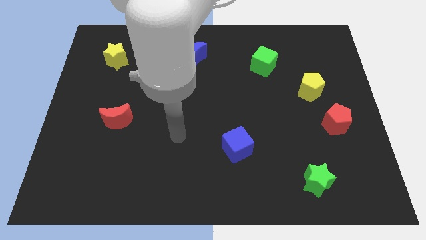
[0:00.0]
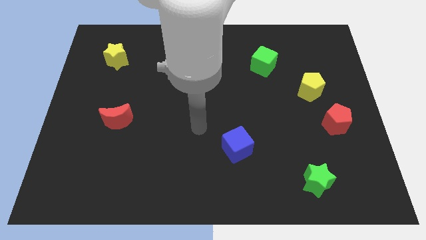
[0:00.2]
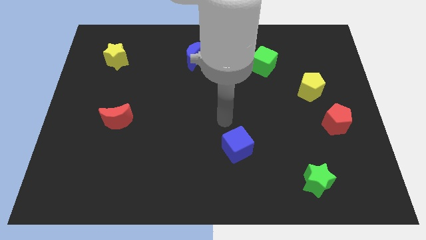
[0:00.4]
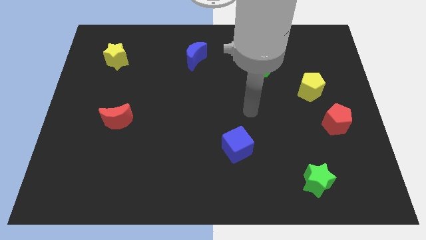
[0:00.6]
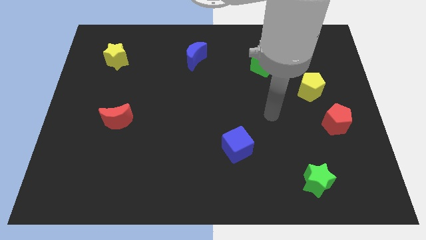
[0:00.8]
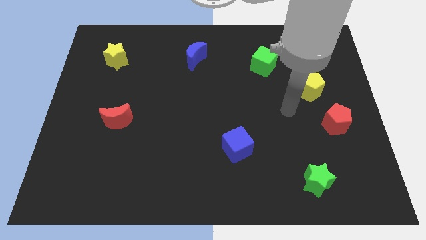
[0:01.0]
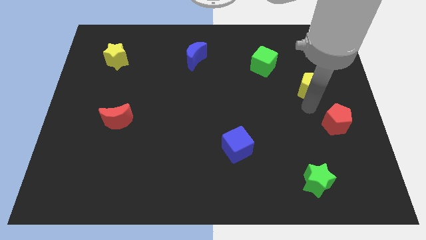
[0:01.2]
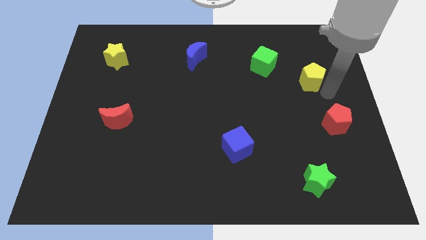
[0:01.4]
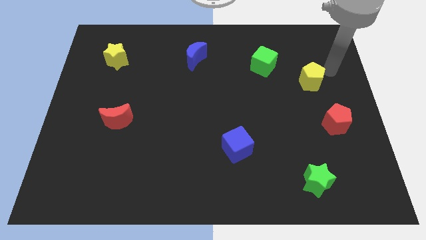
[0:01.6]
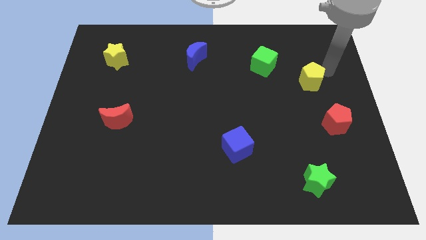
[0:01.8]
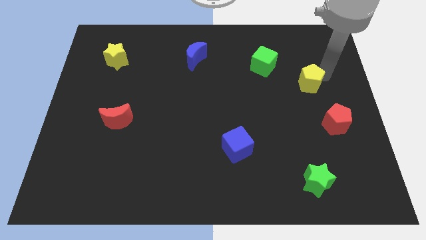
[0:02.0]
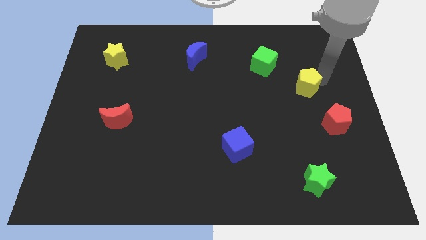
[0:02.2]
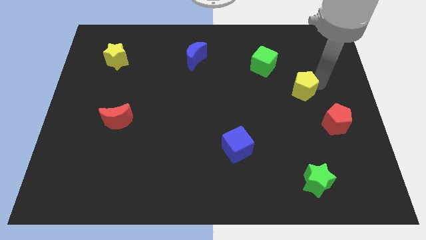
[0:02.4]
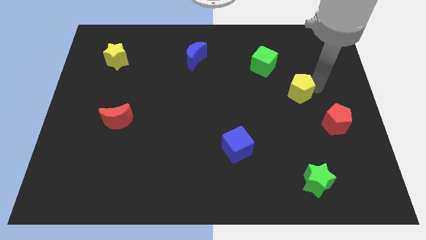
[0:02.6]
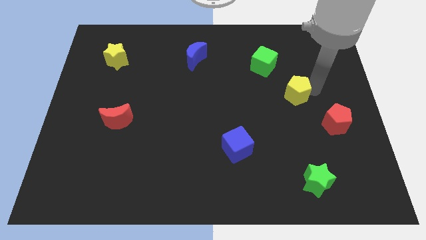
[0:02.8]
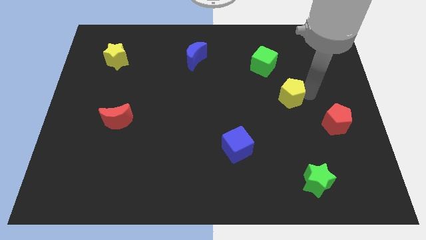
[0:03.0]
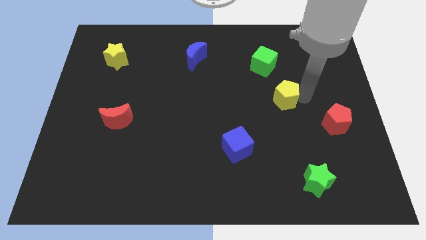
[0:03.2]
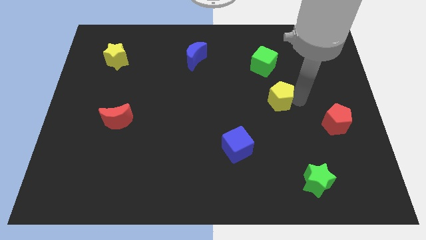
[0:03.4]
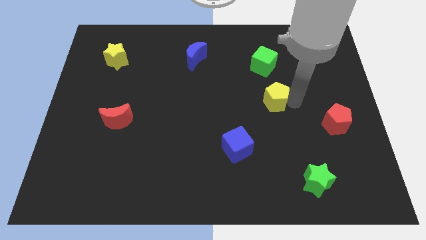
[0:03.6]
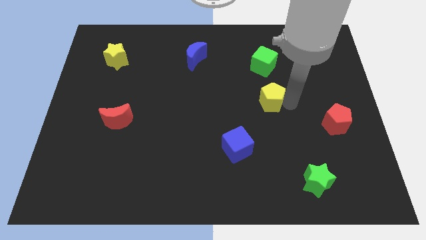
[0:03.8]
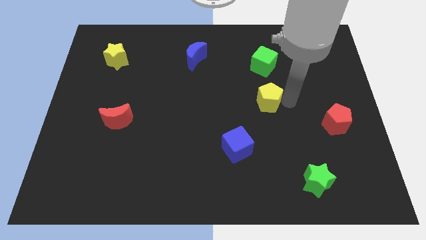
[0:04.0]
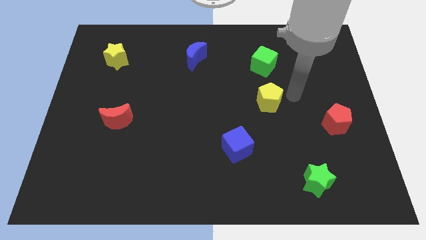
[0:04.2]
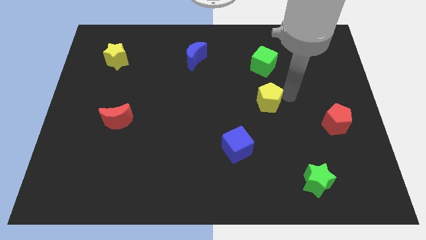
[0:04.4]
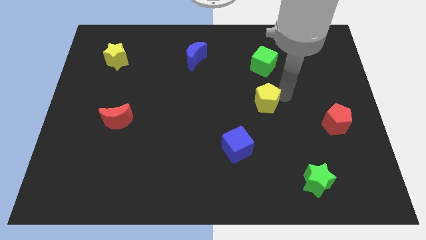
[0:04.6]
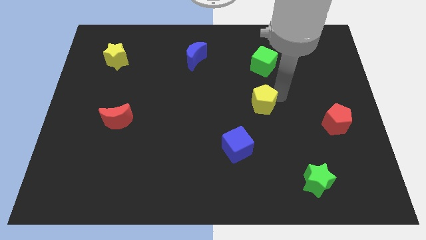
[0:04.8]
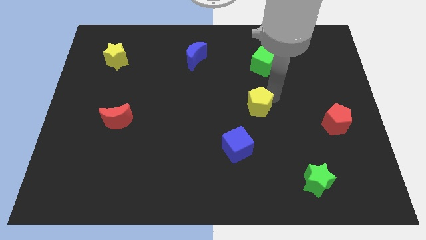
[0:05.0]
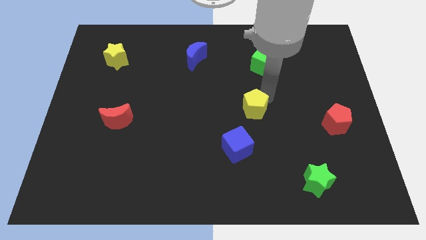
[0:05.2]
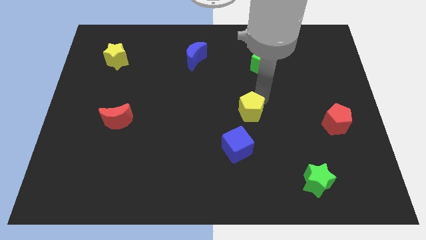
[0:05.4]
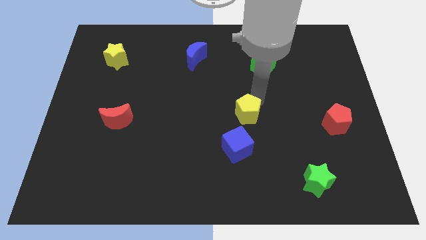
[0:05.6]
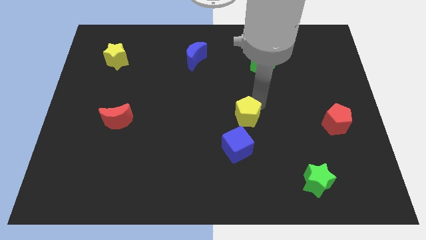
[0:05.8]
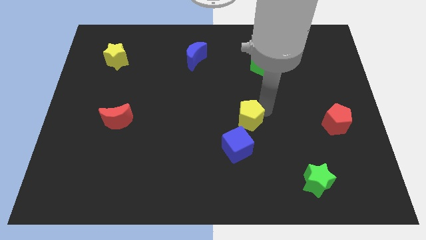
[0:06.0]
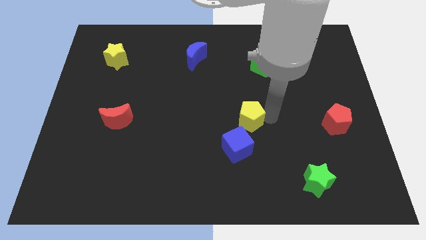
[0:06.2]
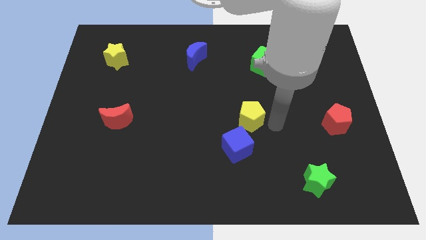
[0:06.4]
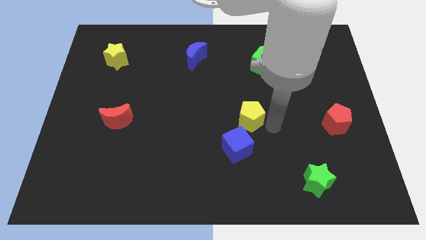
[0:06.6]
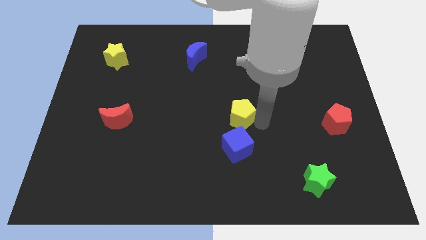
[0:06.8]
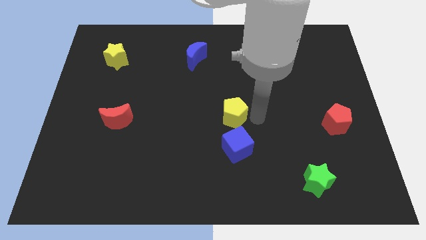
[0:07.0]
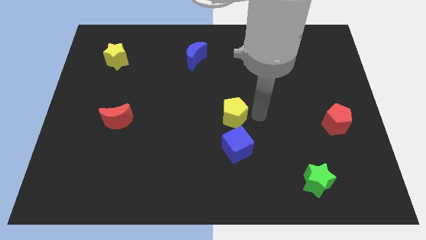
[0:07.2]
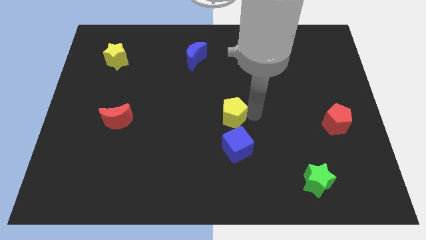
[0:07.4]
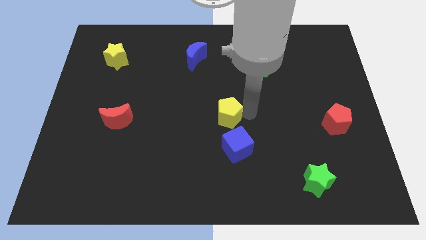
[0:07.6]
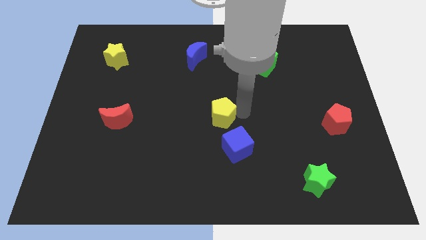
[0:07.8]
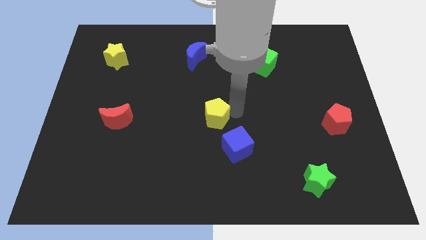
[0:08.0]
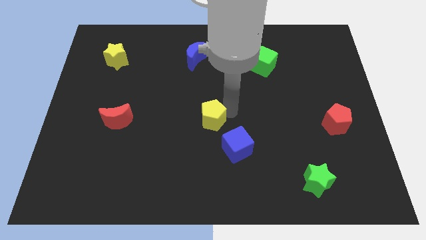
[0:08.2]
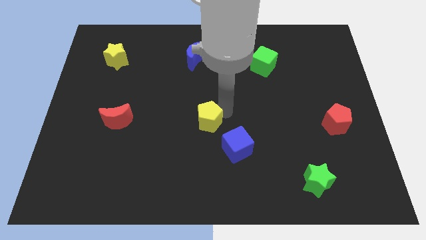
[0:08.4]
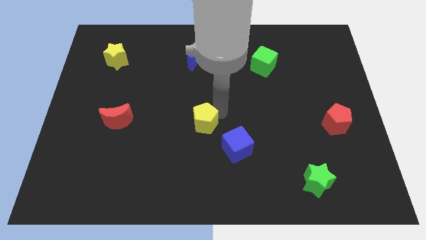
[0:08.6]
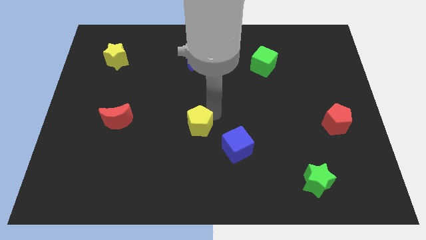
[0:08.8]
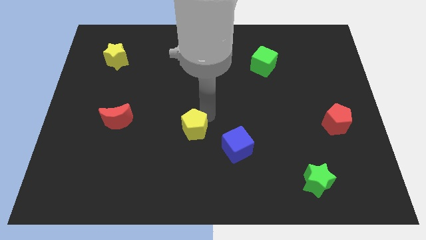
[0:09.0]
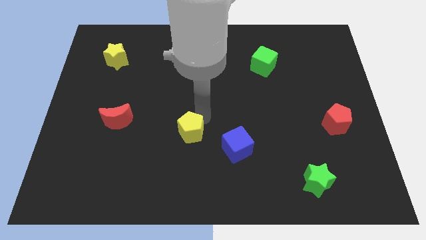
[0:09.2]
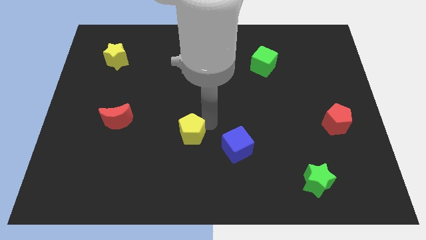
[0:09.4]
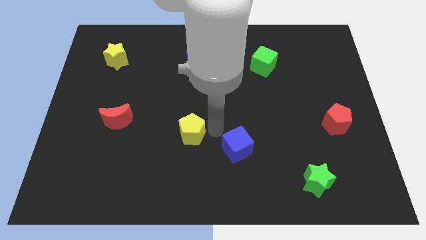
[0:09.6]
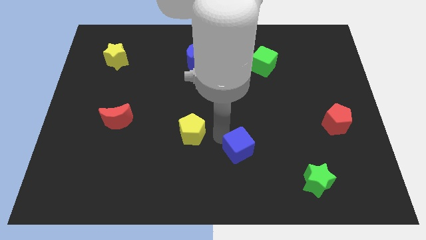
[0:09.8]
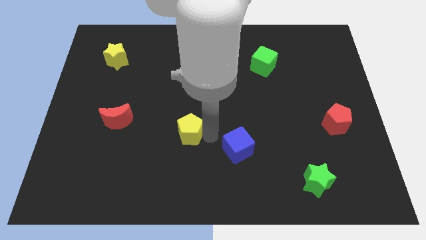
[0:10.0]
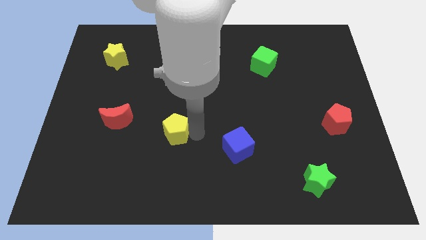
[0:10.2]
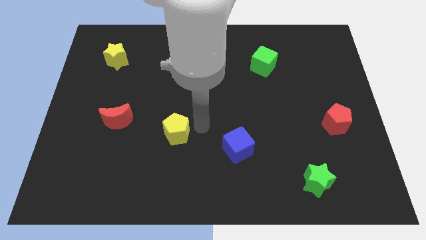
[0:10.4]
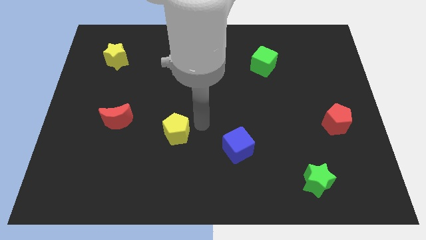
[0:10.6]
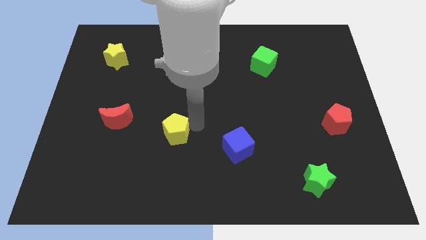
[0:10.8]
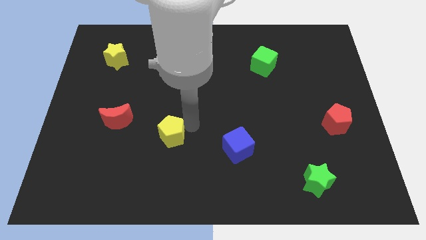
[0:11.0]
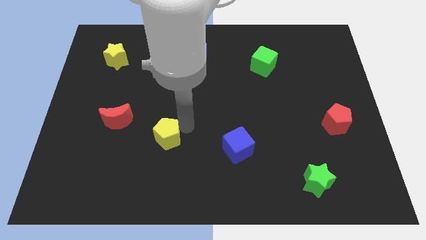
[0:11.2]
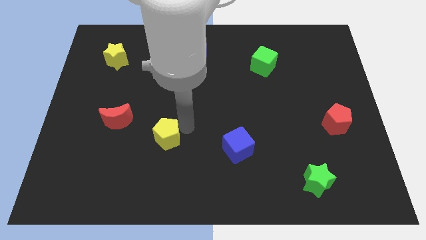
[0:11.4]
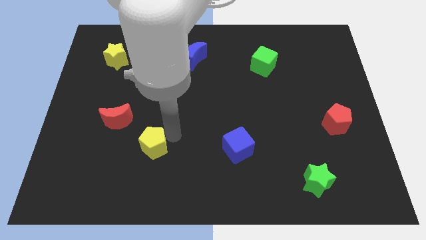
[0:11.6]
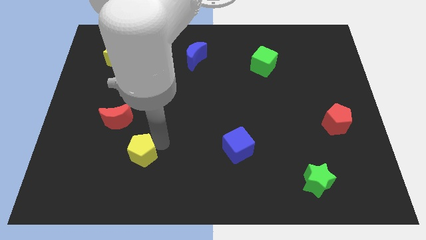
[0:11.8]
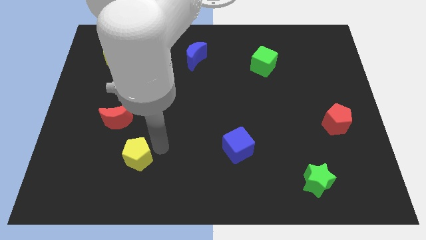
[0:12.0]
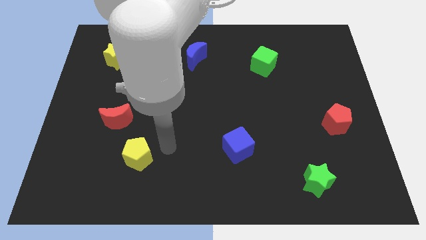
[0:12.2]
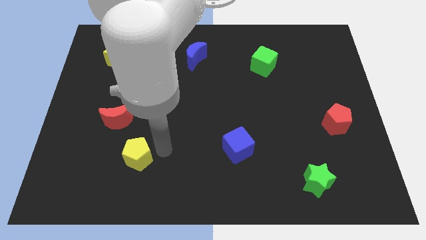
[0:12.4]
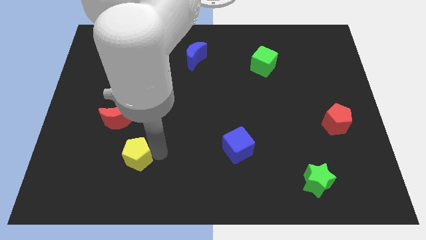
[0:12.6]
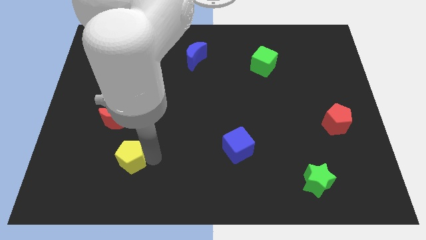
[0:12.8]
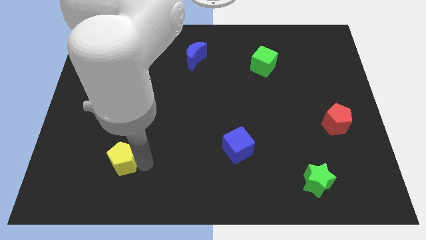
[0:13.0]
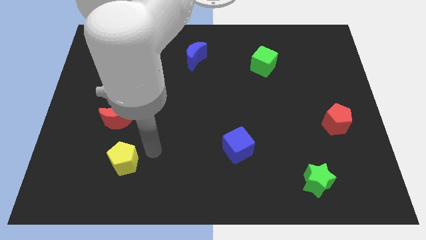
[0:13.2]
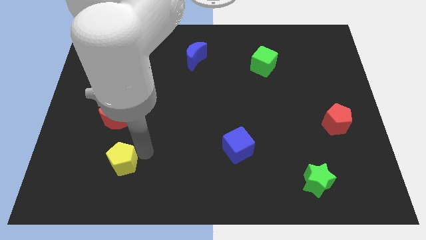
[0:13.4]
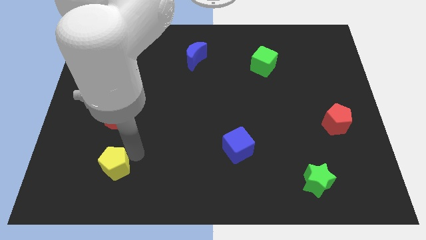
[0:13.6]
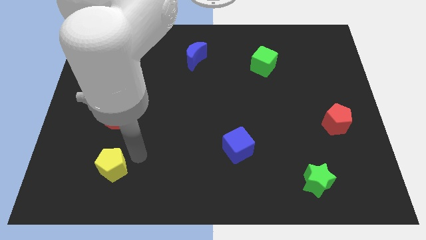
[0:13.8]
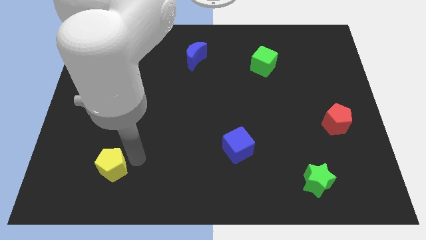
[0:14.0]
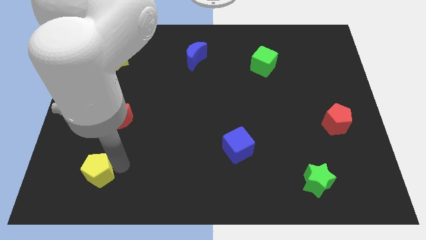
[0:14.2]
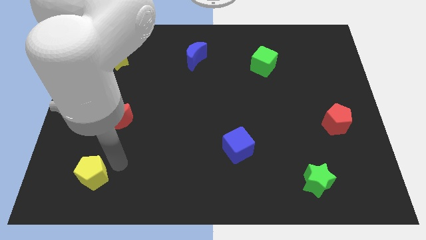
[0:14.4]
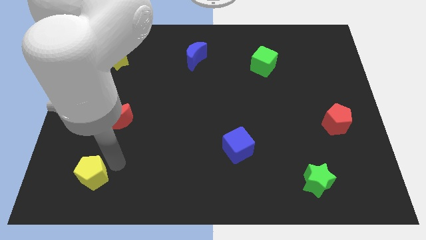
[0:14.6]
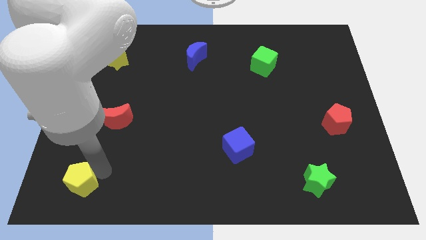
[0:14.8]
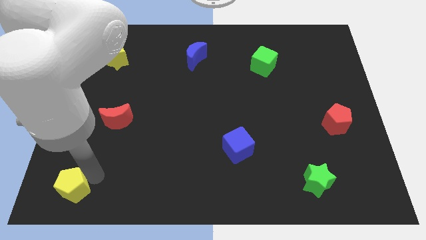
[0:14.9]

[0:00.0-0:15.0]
move the yellow pentagon to the lower left corner
